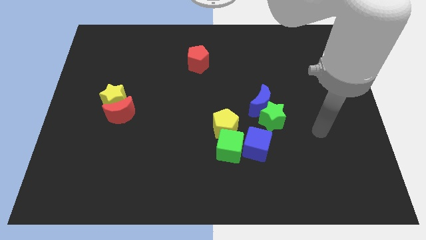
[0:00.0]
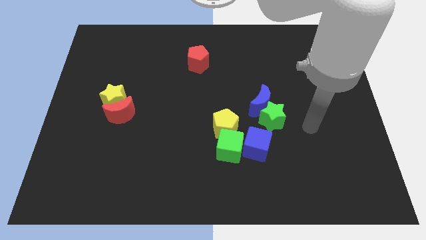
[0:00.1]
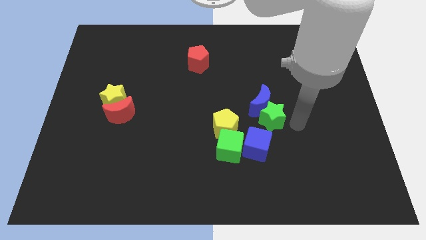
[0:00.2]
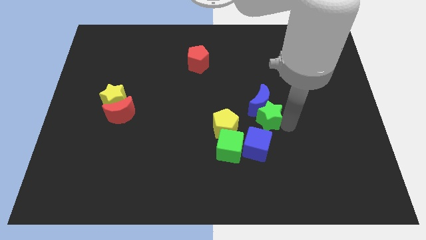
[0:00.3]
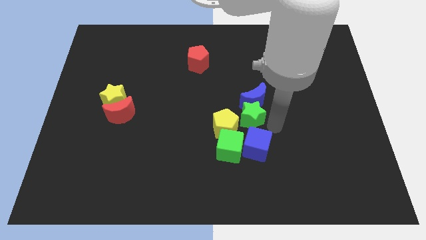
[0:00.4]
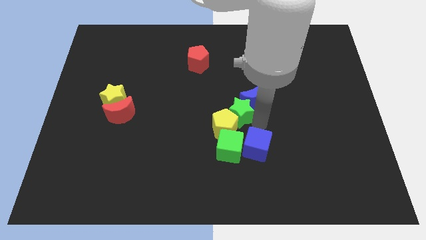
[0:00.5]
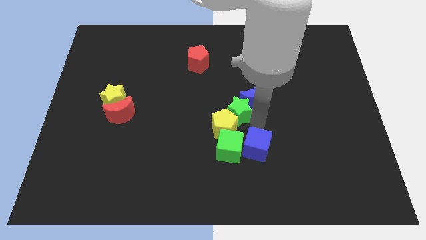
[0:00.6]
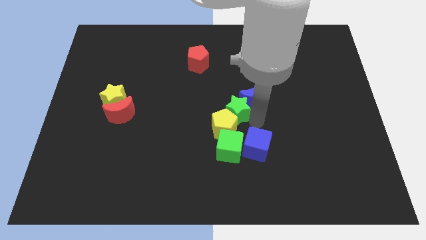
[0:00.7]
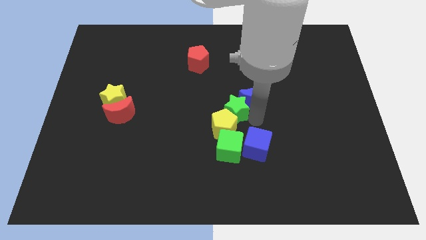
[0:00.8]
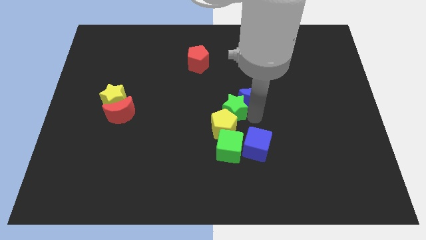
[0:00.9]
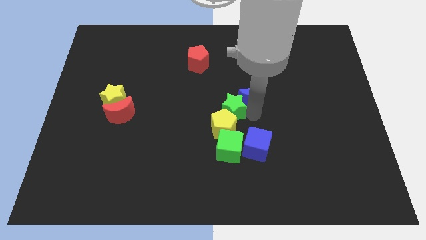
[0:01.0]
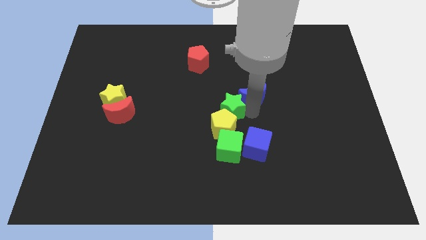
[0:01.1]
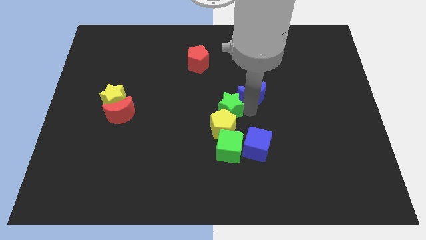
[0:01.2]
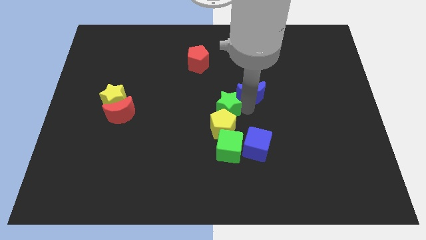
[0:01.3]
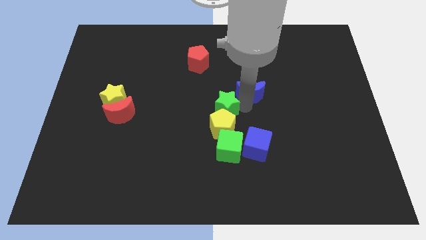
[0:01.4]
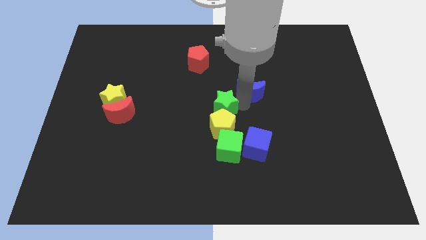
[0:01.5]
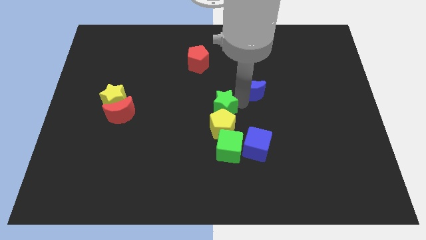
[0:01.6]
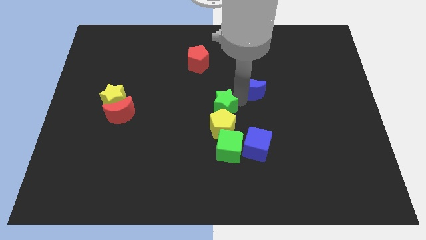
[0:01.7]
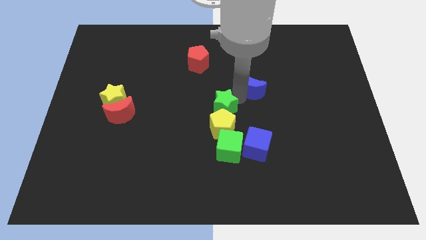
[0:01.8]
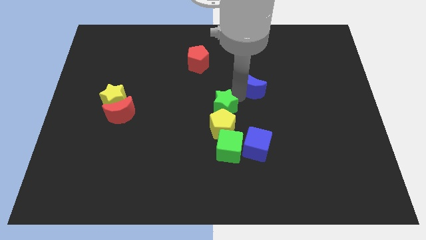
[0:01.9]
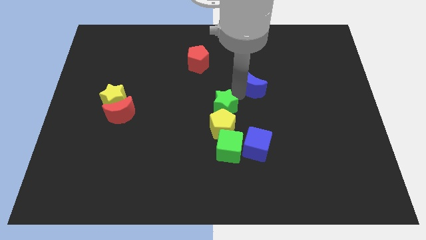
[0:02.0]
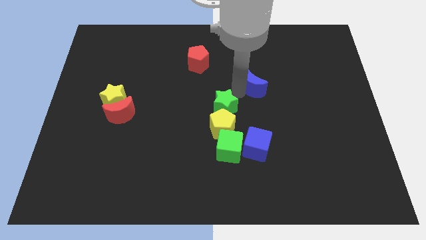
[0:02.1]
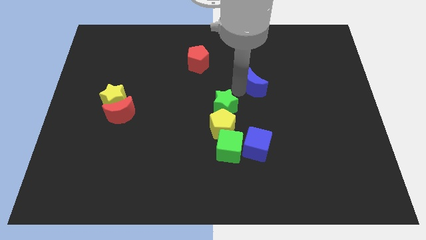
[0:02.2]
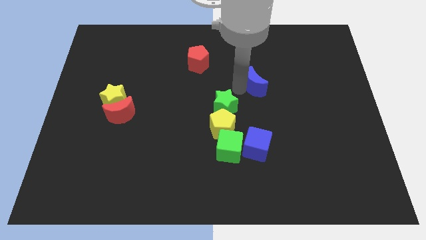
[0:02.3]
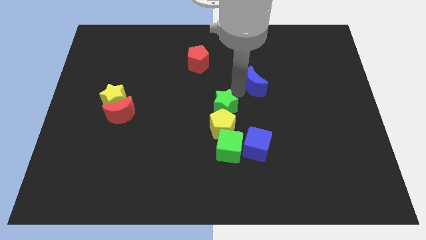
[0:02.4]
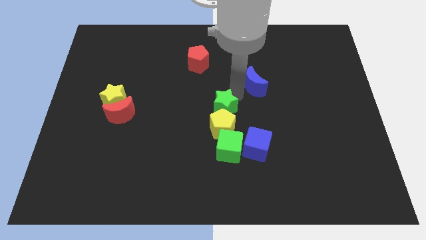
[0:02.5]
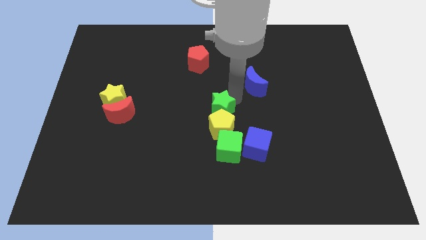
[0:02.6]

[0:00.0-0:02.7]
move the blue moon away from the green star

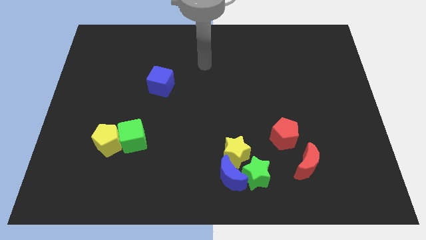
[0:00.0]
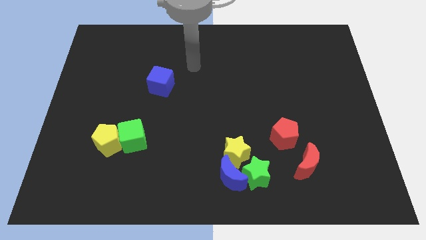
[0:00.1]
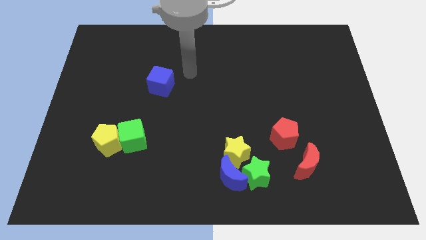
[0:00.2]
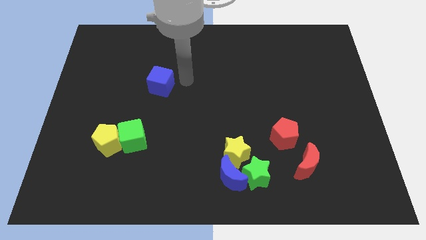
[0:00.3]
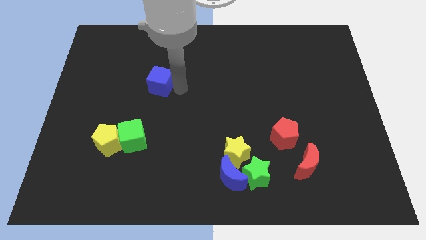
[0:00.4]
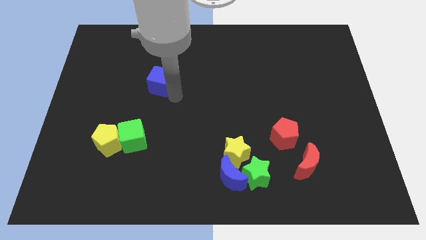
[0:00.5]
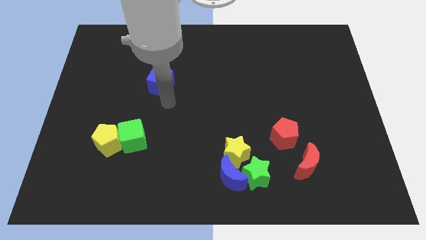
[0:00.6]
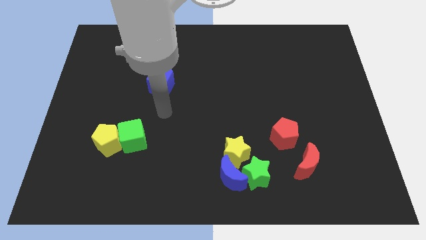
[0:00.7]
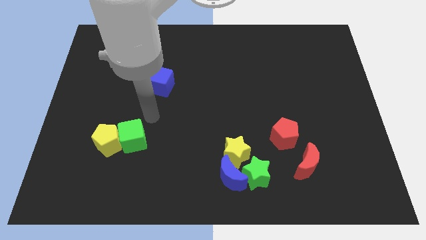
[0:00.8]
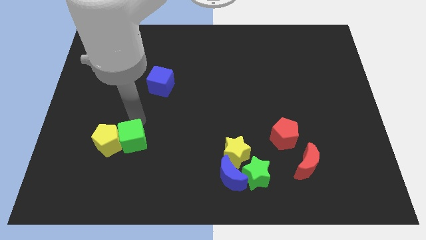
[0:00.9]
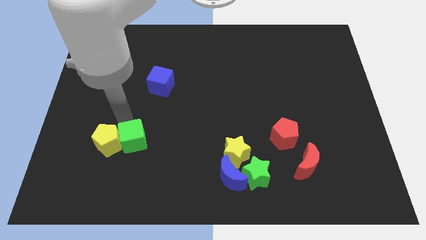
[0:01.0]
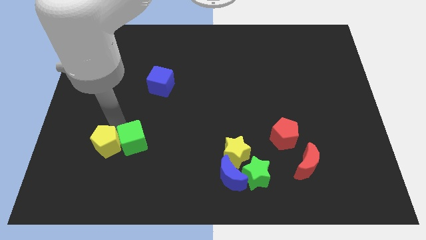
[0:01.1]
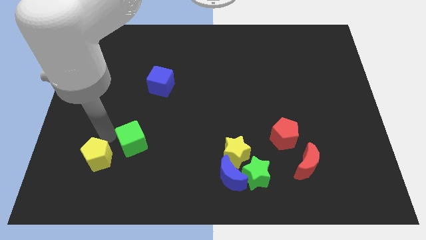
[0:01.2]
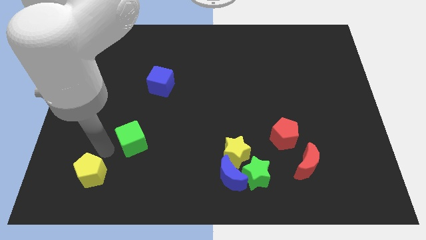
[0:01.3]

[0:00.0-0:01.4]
move the green cube away from the yellow pentagon

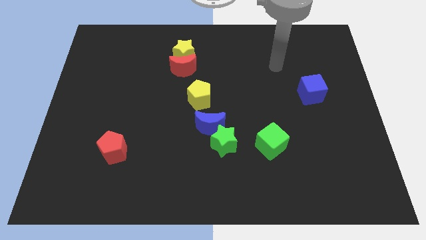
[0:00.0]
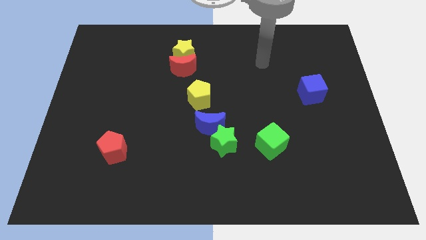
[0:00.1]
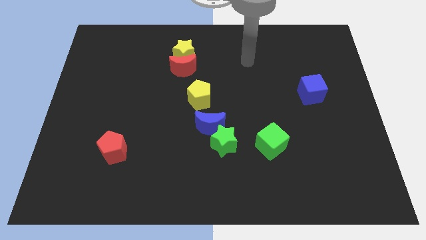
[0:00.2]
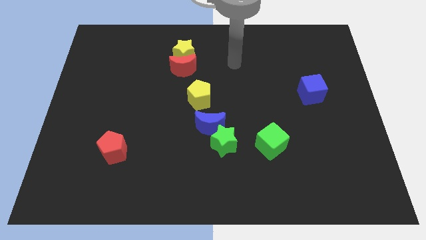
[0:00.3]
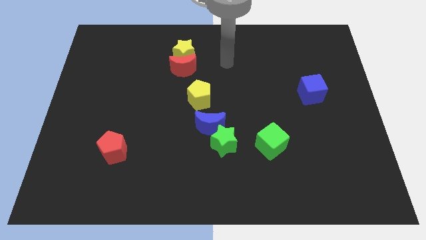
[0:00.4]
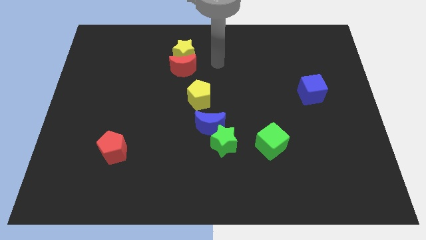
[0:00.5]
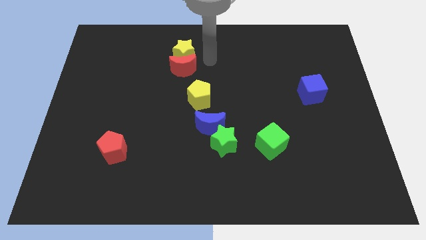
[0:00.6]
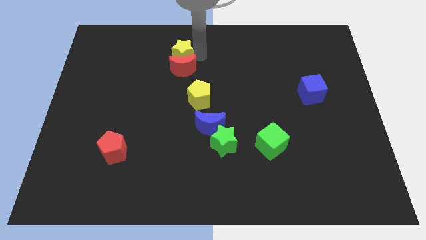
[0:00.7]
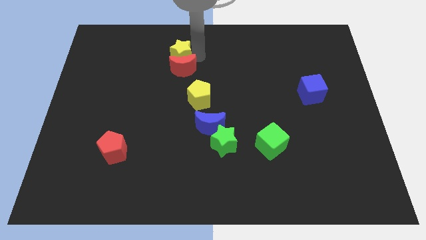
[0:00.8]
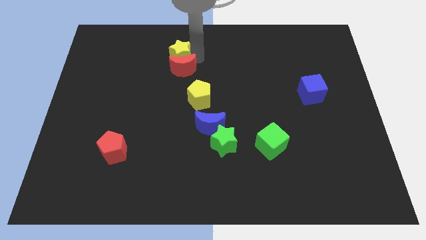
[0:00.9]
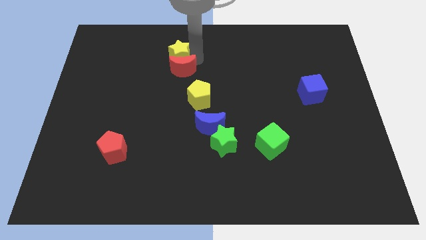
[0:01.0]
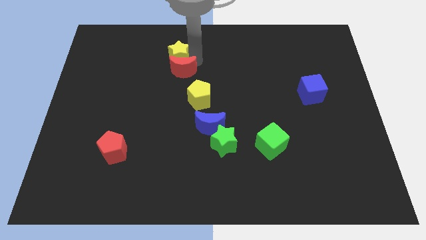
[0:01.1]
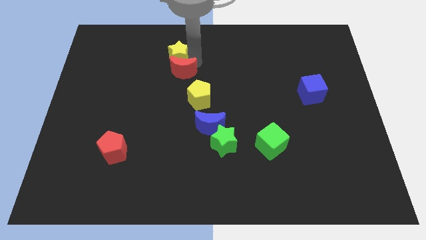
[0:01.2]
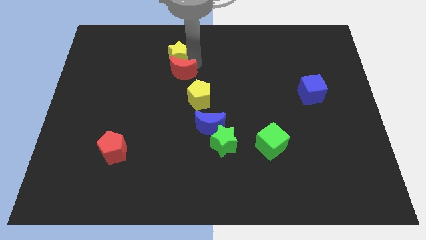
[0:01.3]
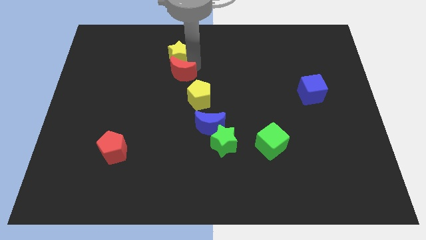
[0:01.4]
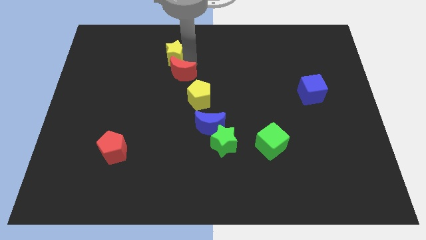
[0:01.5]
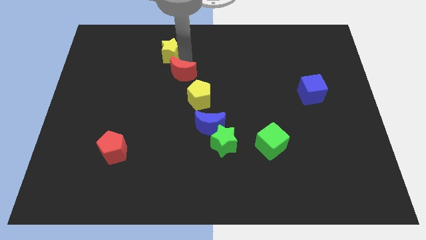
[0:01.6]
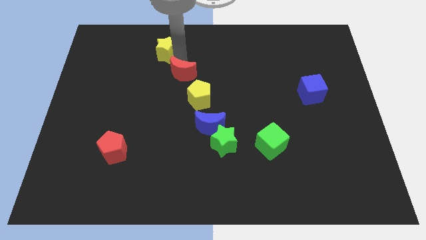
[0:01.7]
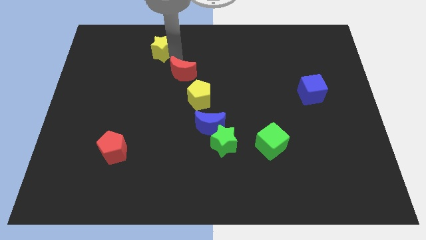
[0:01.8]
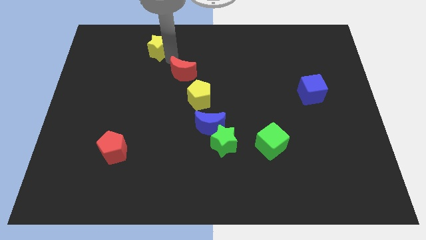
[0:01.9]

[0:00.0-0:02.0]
move the red moon away from the yellow star

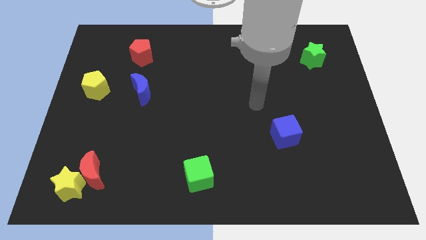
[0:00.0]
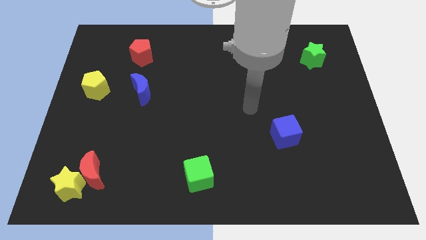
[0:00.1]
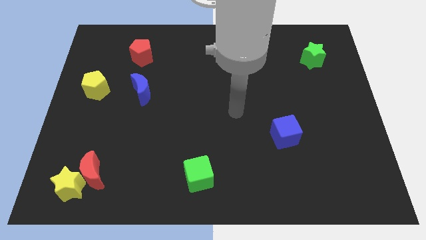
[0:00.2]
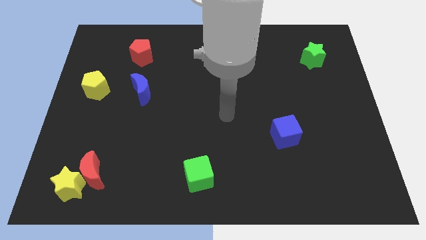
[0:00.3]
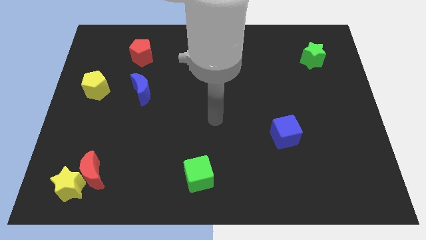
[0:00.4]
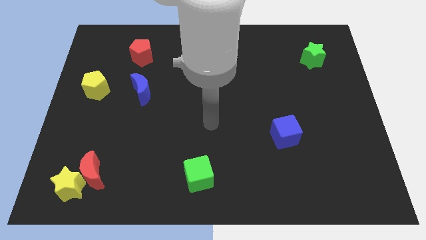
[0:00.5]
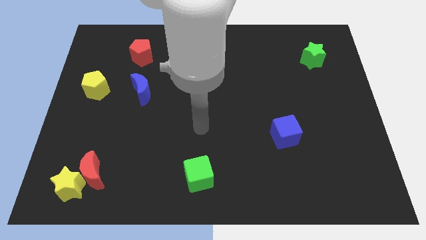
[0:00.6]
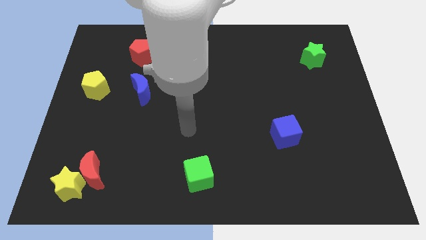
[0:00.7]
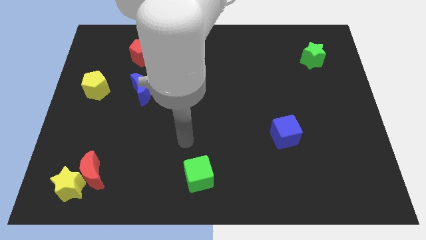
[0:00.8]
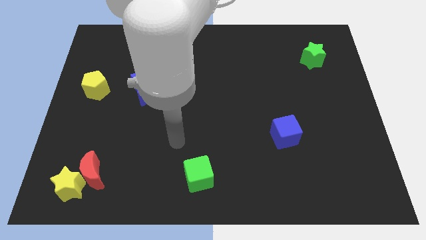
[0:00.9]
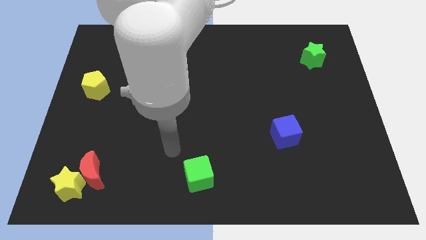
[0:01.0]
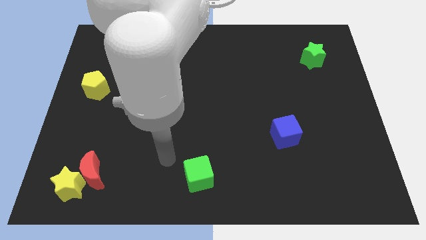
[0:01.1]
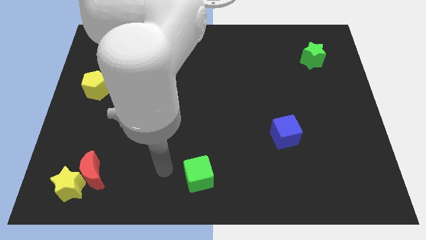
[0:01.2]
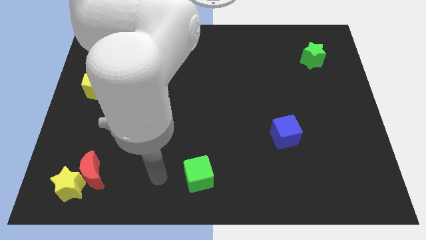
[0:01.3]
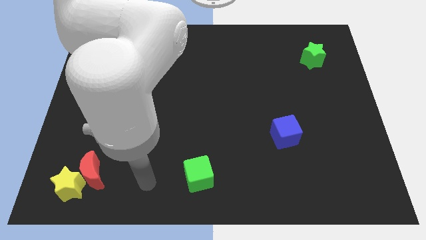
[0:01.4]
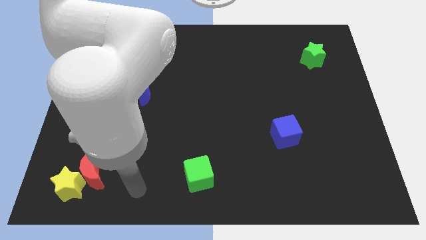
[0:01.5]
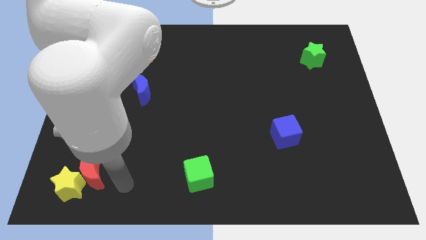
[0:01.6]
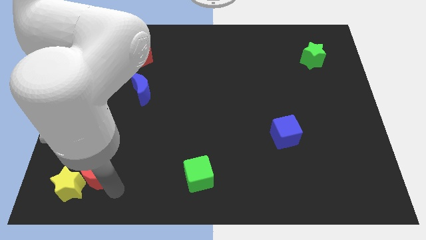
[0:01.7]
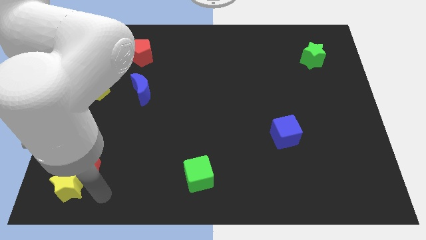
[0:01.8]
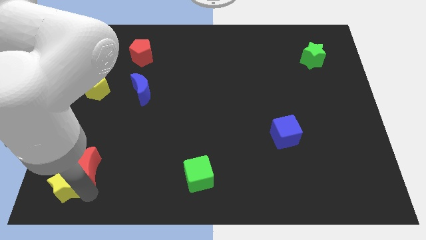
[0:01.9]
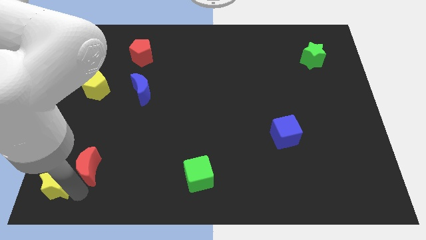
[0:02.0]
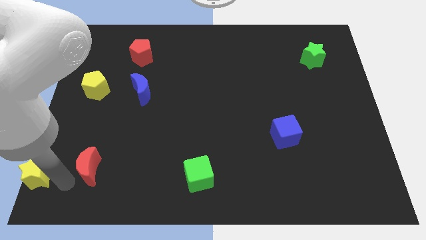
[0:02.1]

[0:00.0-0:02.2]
pull the red moon apart from the yellow star

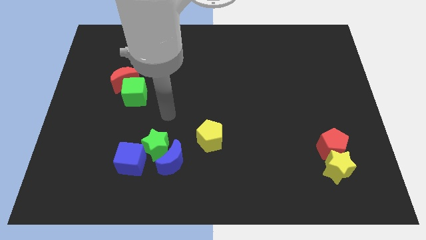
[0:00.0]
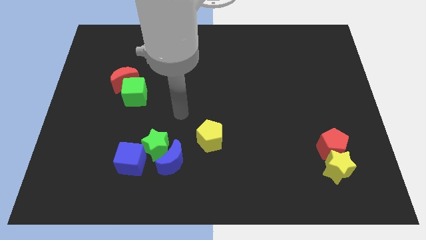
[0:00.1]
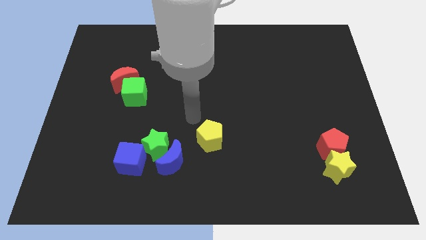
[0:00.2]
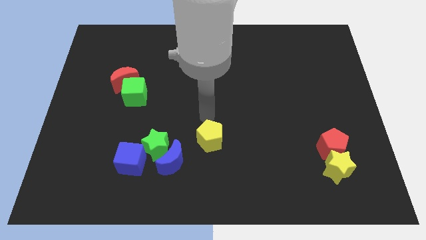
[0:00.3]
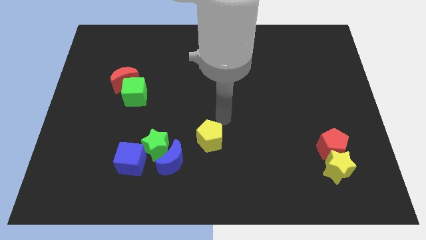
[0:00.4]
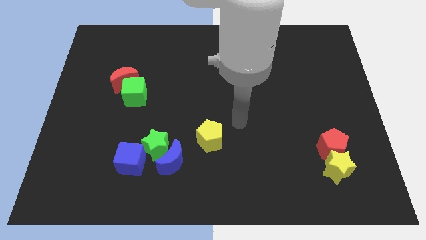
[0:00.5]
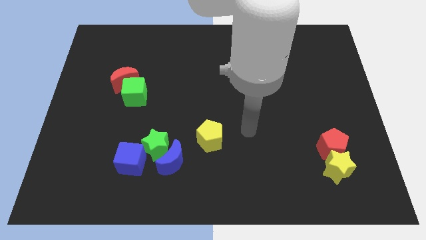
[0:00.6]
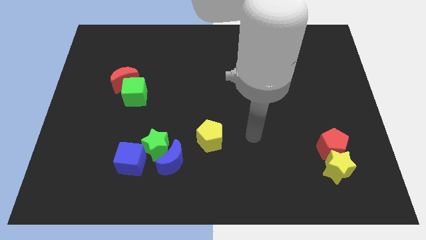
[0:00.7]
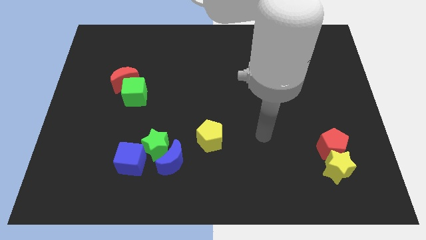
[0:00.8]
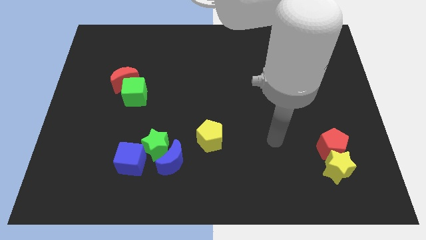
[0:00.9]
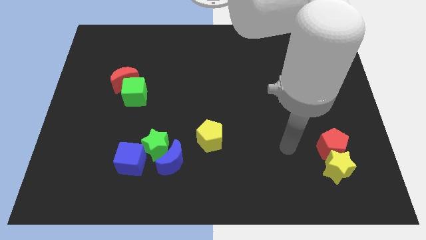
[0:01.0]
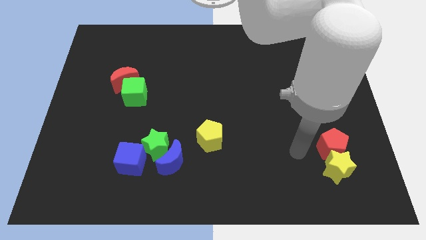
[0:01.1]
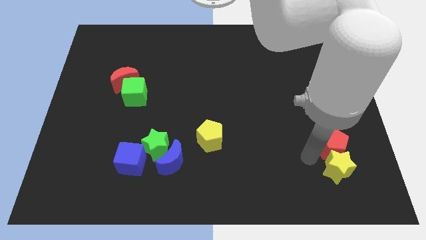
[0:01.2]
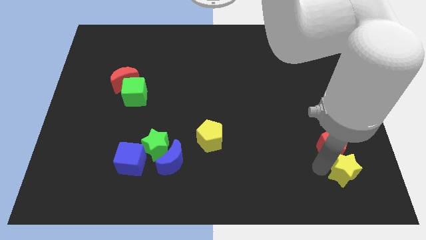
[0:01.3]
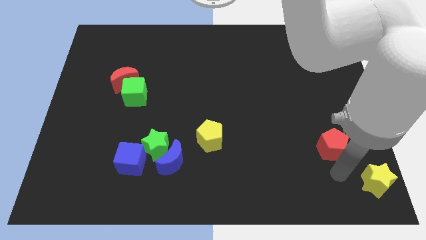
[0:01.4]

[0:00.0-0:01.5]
pull the red pentagon apart from the yellow star
